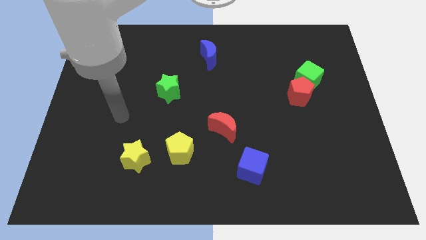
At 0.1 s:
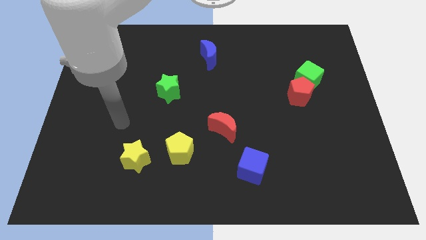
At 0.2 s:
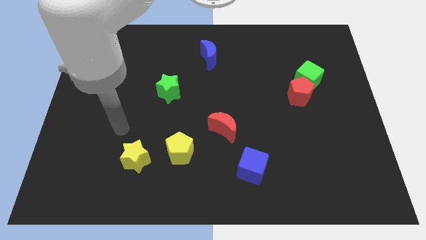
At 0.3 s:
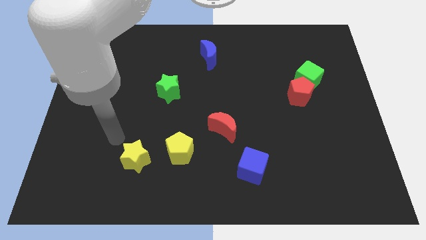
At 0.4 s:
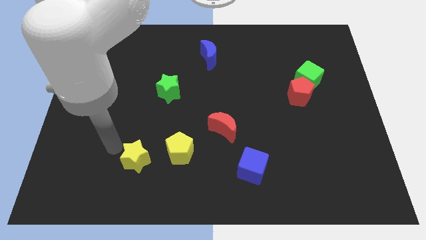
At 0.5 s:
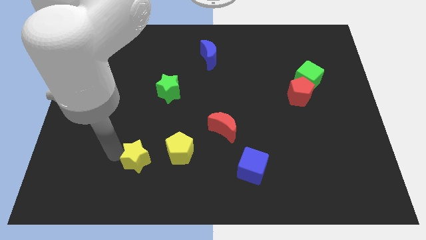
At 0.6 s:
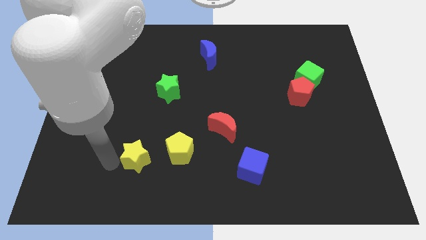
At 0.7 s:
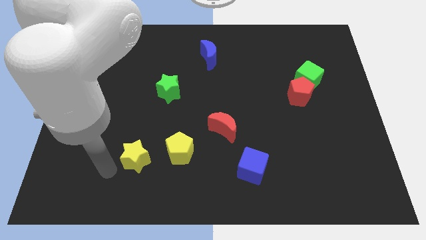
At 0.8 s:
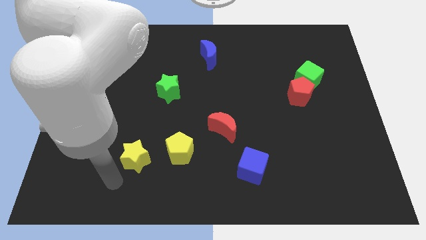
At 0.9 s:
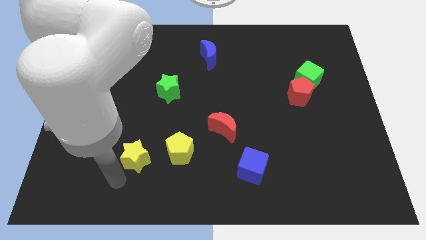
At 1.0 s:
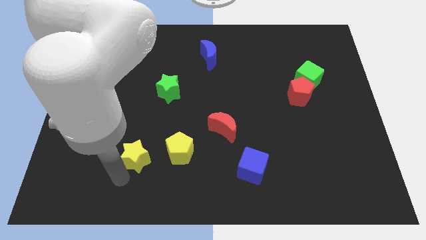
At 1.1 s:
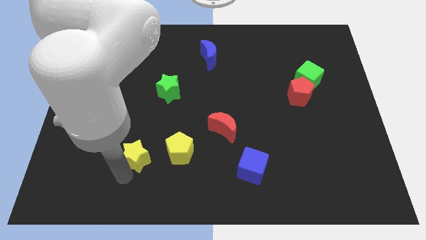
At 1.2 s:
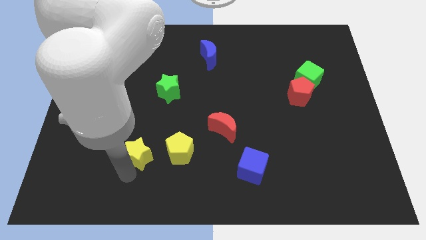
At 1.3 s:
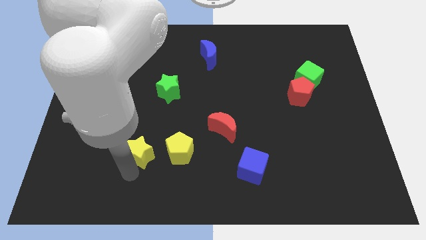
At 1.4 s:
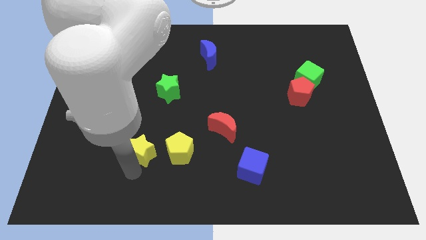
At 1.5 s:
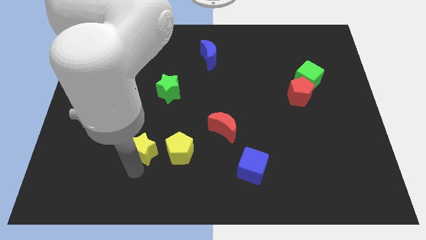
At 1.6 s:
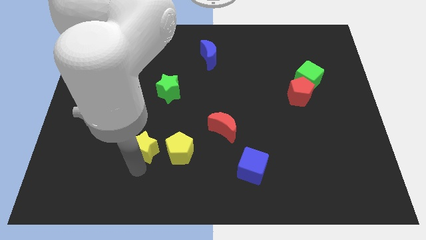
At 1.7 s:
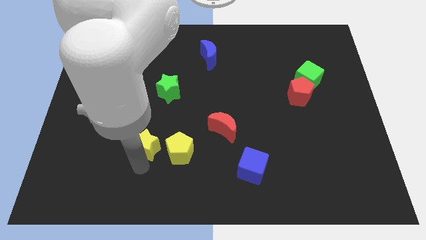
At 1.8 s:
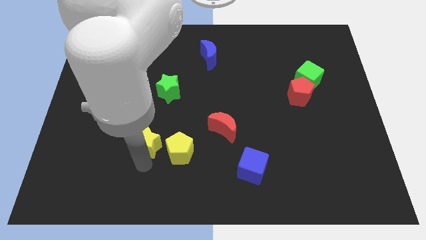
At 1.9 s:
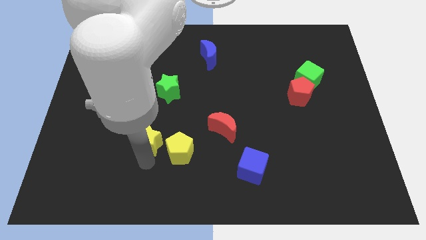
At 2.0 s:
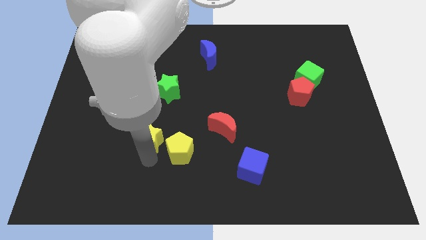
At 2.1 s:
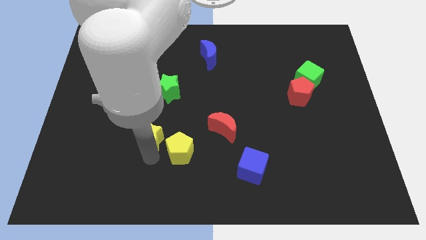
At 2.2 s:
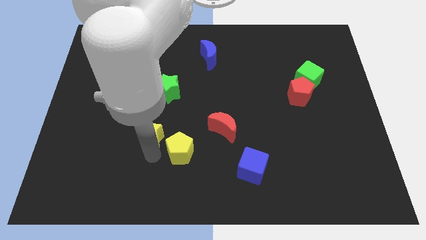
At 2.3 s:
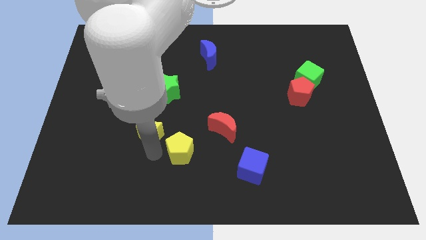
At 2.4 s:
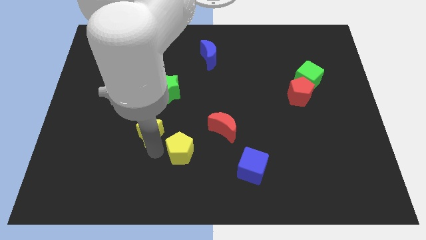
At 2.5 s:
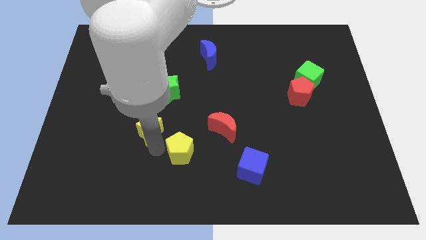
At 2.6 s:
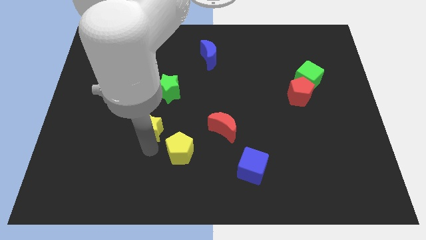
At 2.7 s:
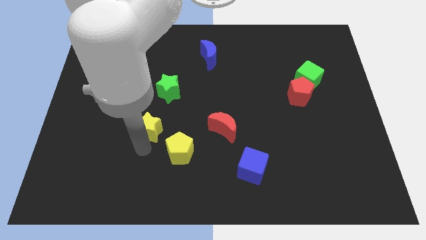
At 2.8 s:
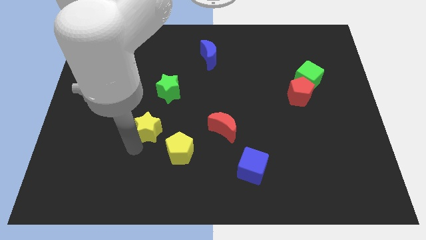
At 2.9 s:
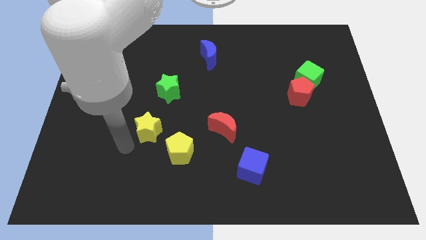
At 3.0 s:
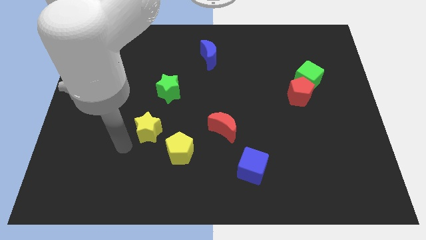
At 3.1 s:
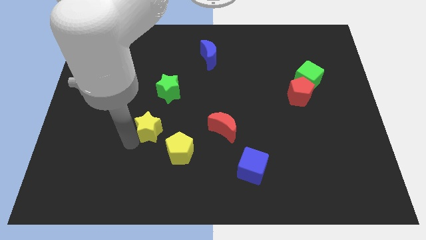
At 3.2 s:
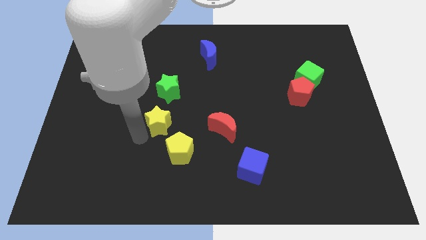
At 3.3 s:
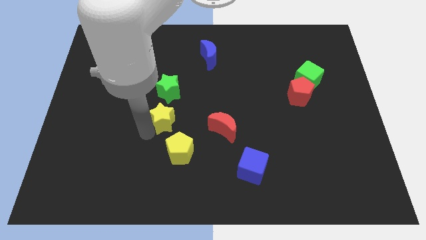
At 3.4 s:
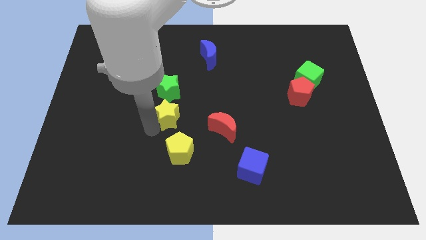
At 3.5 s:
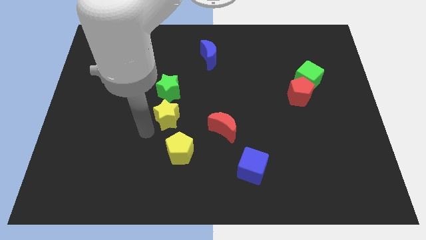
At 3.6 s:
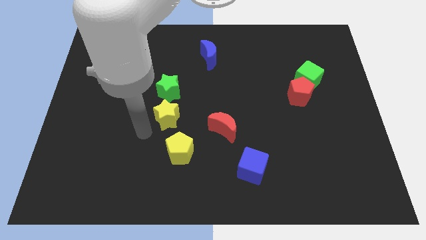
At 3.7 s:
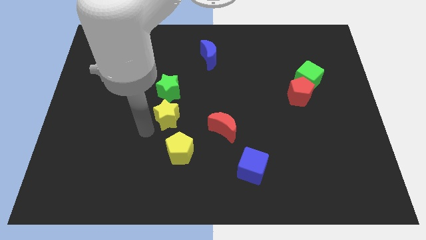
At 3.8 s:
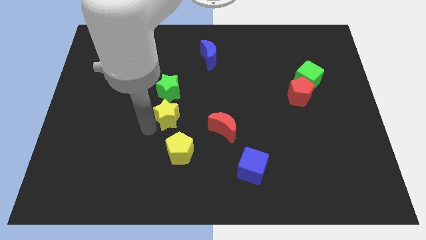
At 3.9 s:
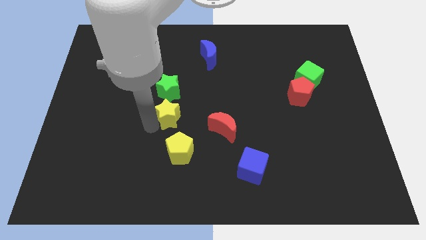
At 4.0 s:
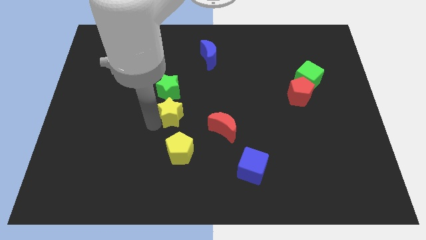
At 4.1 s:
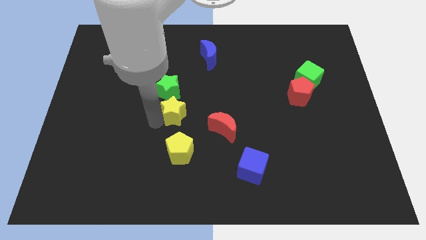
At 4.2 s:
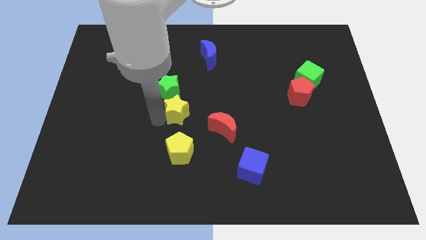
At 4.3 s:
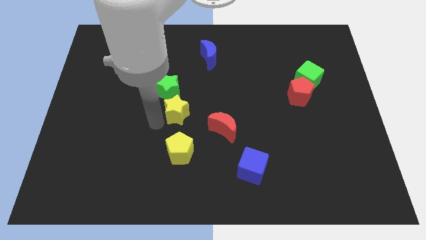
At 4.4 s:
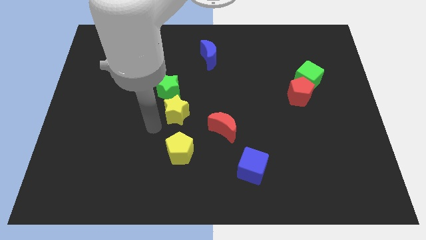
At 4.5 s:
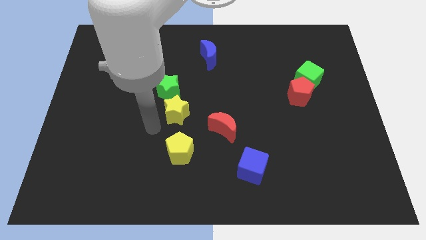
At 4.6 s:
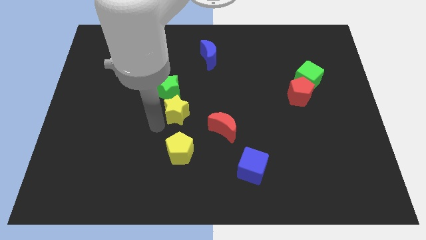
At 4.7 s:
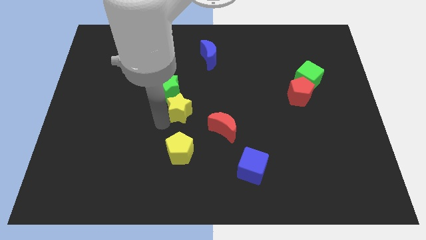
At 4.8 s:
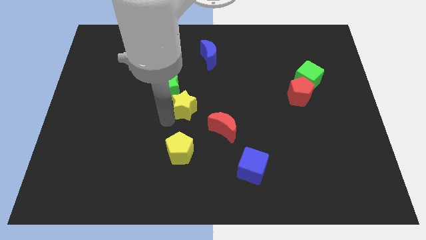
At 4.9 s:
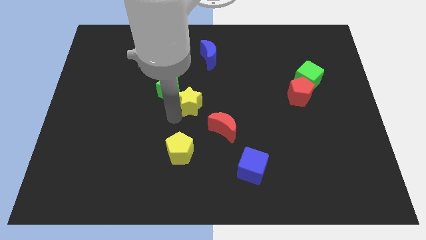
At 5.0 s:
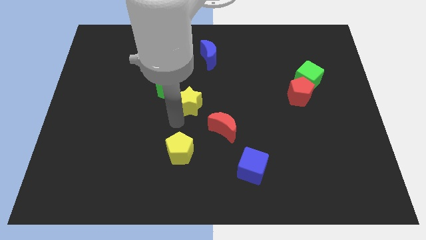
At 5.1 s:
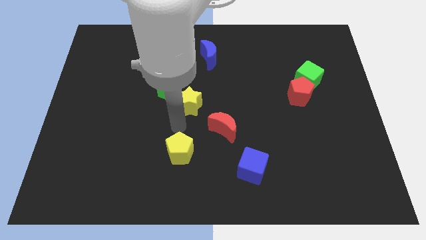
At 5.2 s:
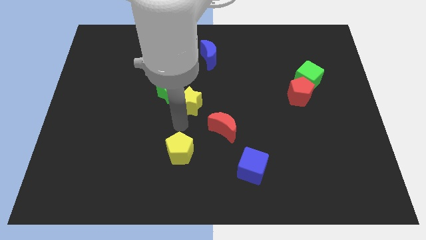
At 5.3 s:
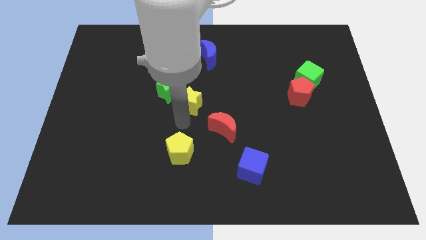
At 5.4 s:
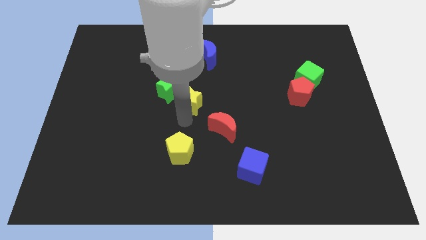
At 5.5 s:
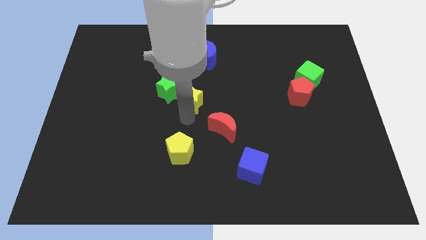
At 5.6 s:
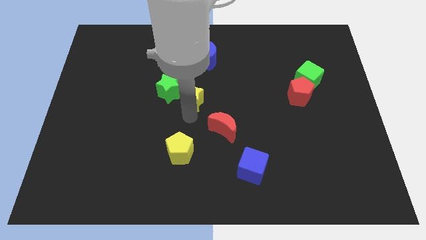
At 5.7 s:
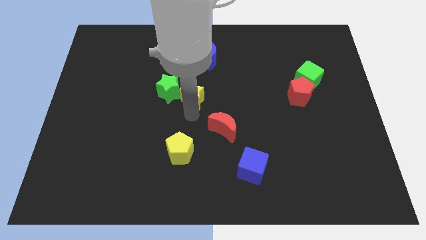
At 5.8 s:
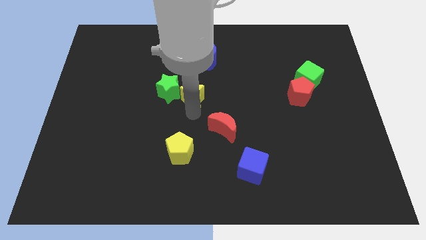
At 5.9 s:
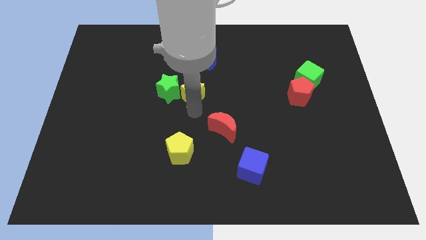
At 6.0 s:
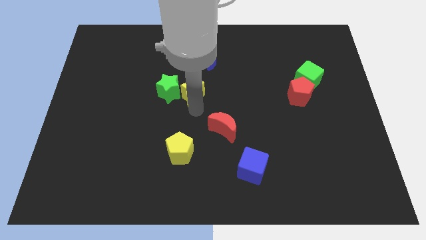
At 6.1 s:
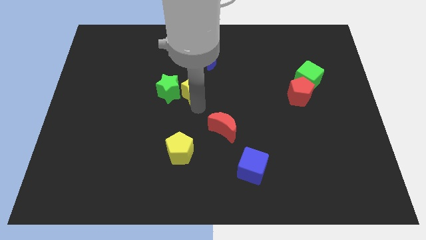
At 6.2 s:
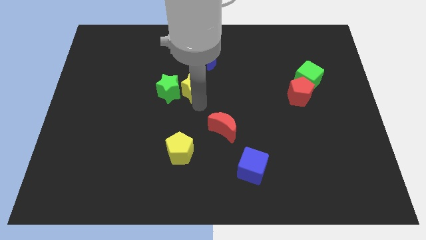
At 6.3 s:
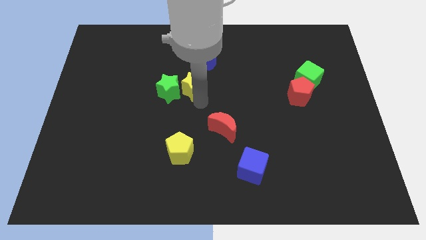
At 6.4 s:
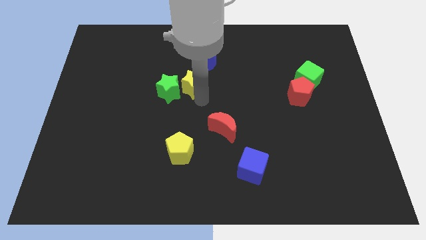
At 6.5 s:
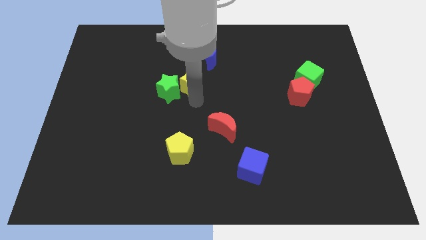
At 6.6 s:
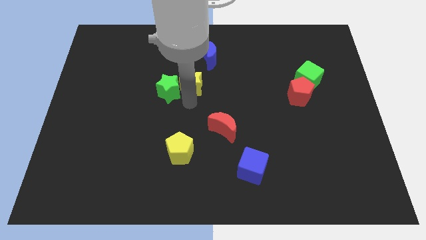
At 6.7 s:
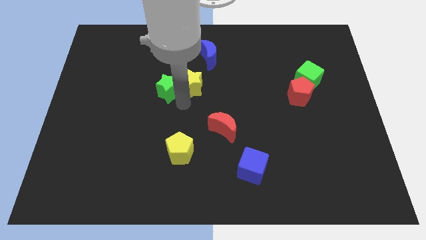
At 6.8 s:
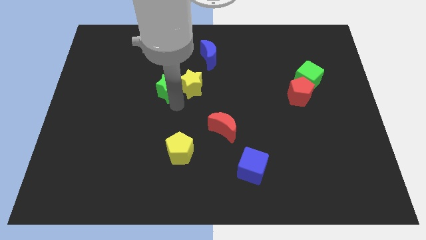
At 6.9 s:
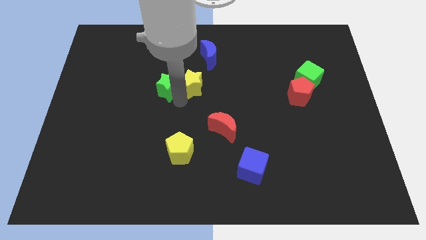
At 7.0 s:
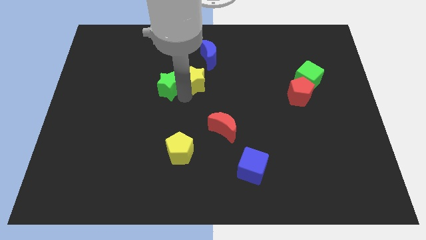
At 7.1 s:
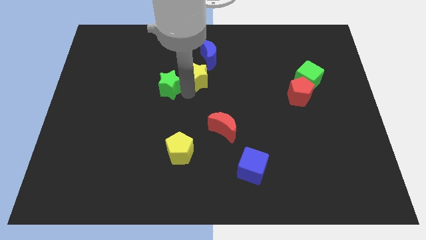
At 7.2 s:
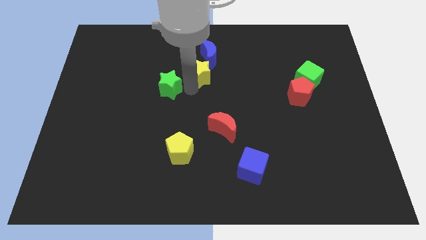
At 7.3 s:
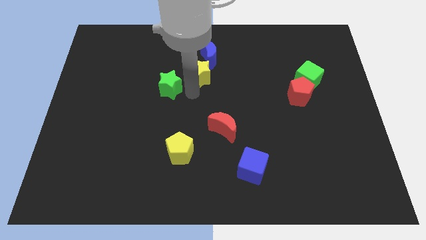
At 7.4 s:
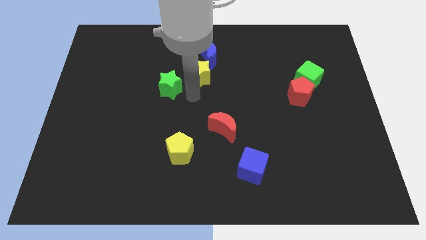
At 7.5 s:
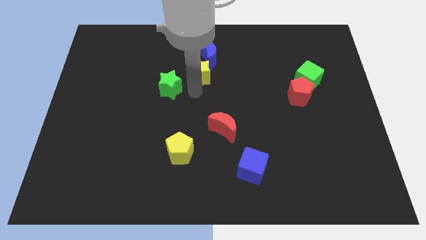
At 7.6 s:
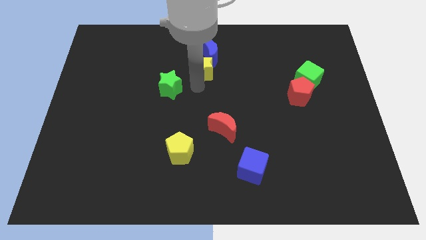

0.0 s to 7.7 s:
push the yellow star next to the blue moon

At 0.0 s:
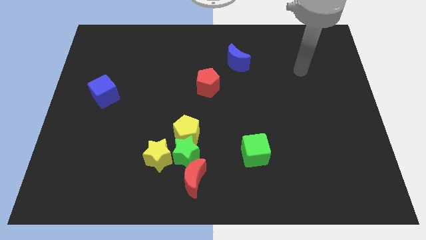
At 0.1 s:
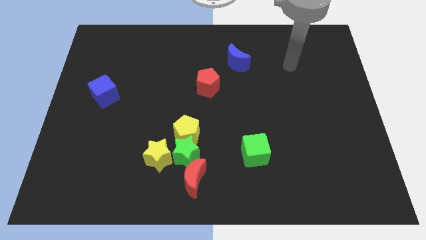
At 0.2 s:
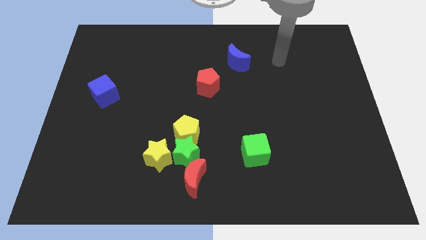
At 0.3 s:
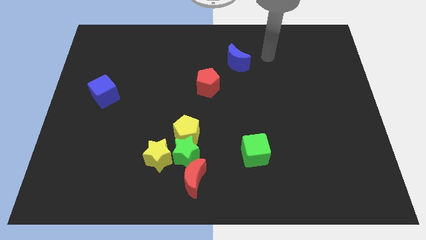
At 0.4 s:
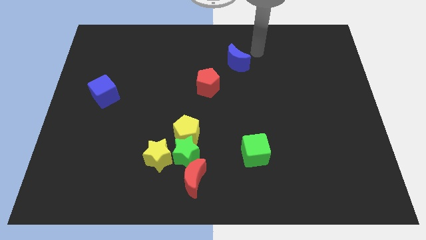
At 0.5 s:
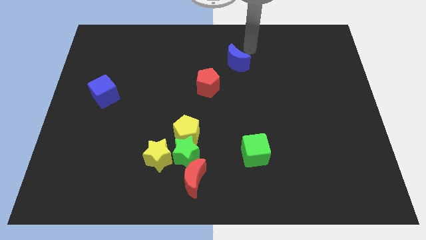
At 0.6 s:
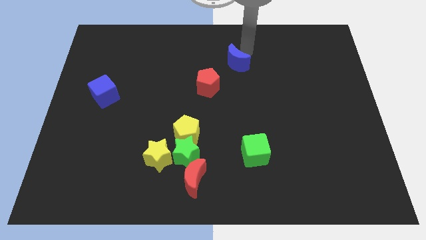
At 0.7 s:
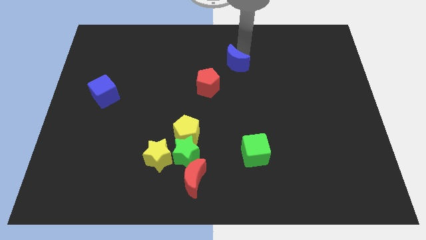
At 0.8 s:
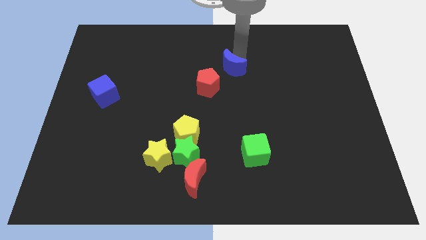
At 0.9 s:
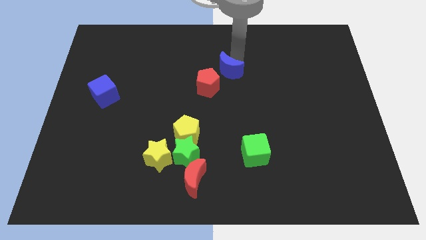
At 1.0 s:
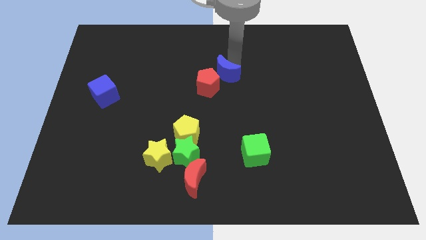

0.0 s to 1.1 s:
slide the blue moon towards the red pentagon
